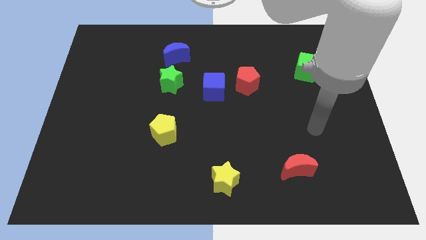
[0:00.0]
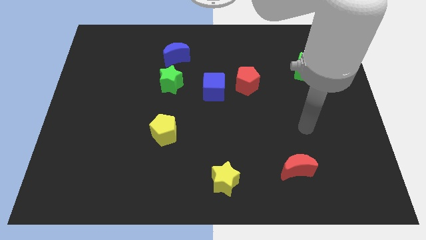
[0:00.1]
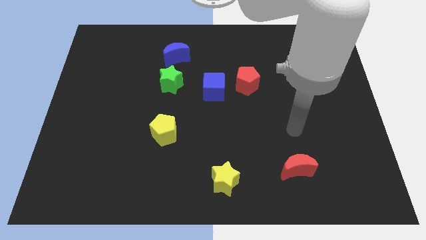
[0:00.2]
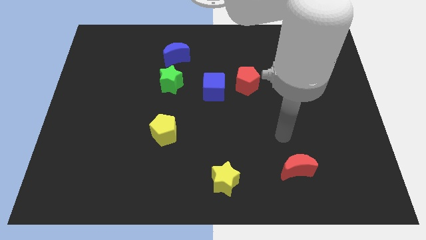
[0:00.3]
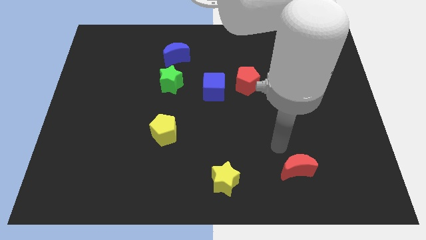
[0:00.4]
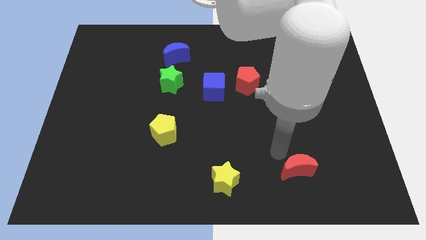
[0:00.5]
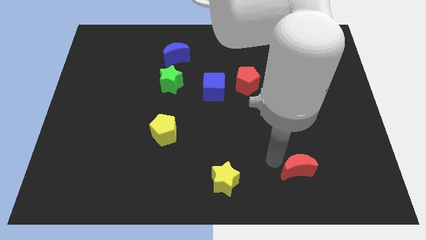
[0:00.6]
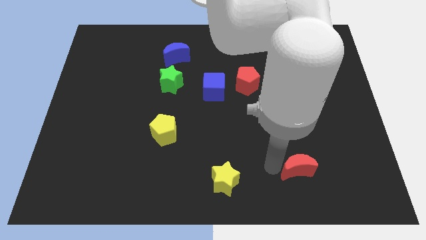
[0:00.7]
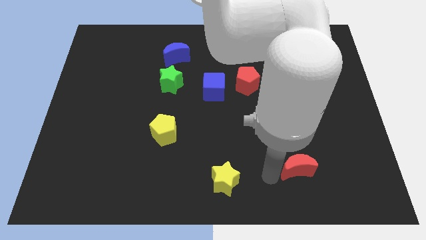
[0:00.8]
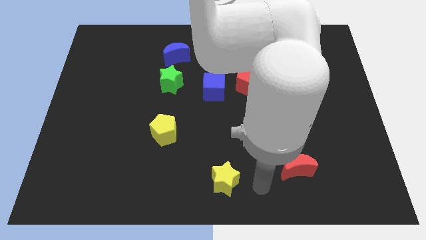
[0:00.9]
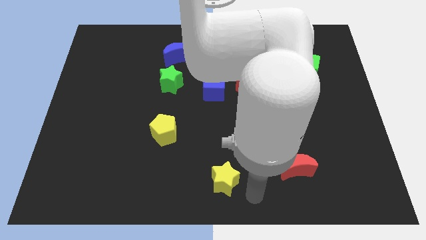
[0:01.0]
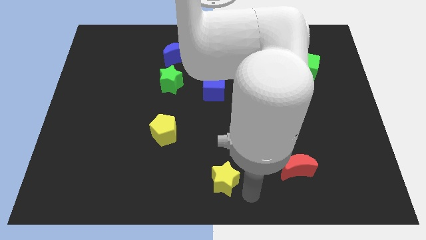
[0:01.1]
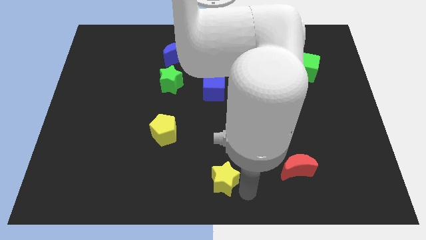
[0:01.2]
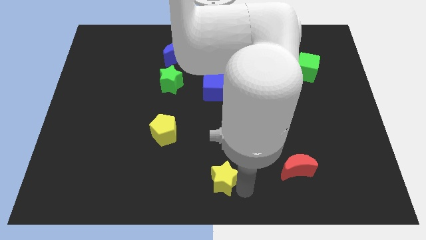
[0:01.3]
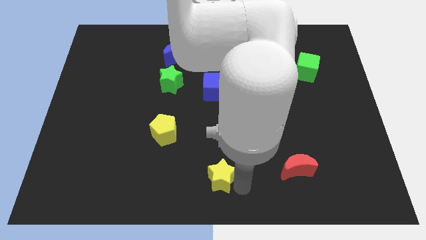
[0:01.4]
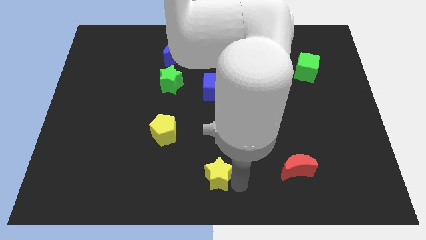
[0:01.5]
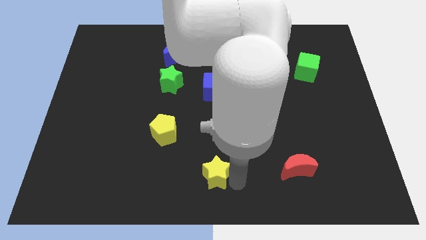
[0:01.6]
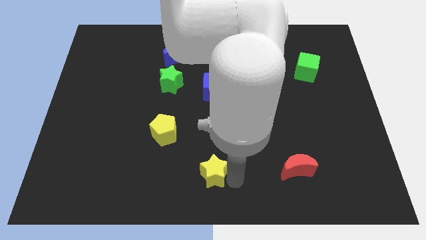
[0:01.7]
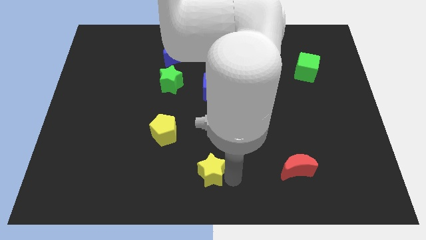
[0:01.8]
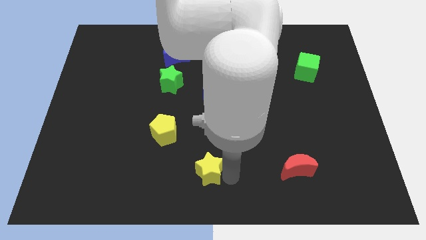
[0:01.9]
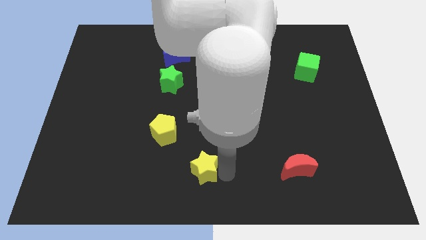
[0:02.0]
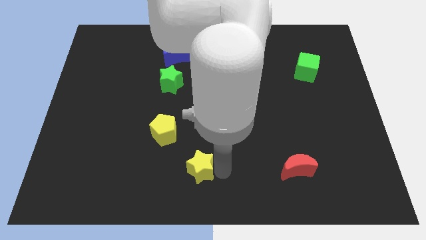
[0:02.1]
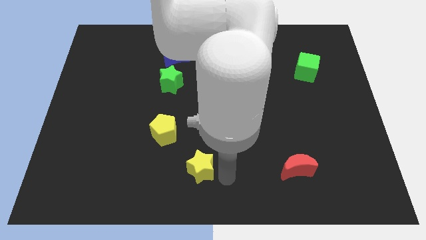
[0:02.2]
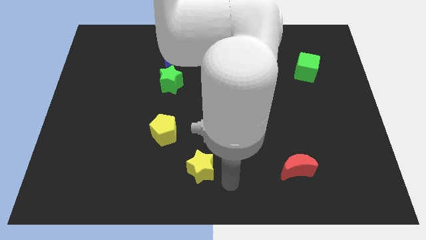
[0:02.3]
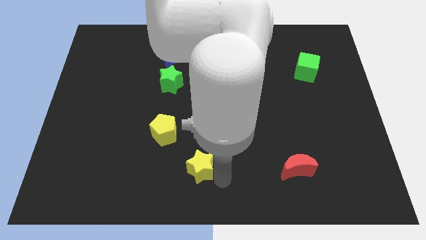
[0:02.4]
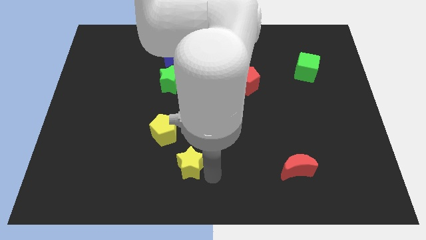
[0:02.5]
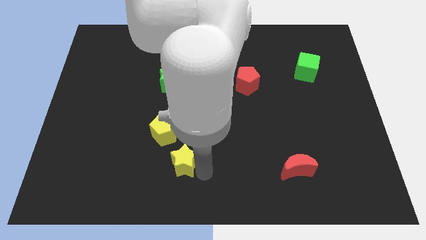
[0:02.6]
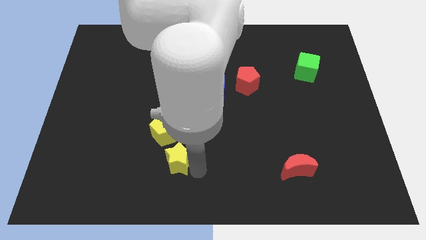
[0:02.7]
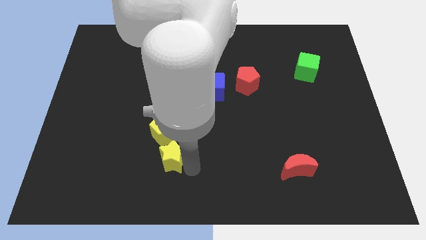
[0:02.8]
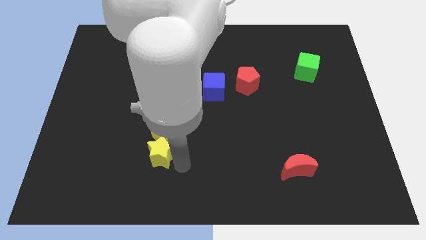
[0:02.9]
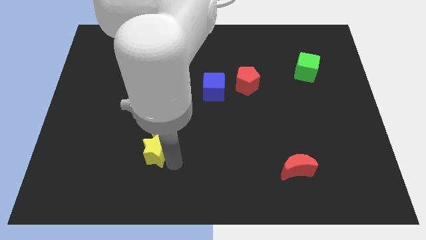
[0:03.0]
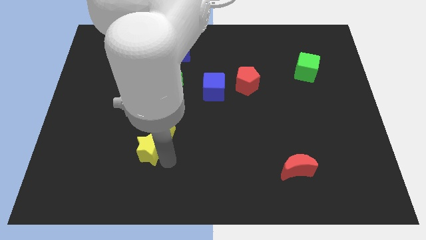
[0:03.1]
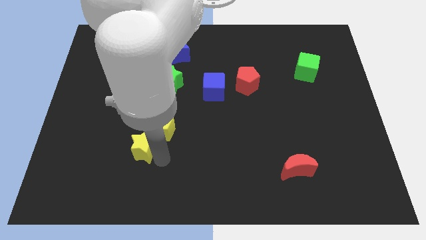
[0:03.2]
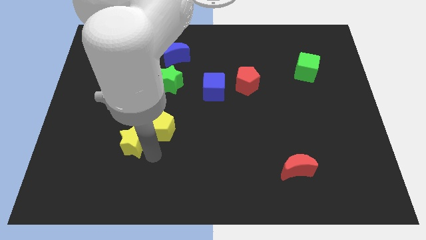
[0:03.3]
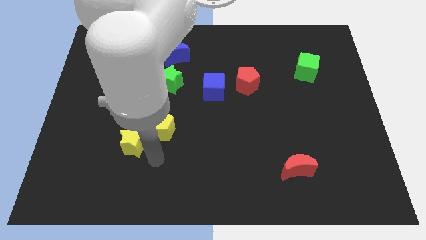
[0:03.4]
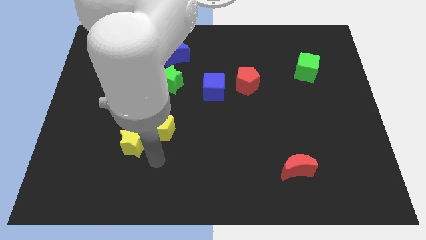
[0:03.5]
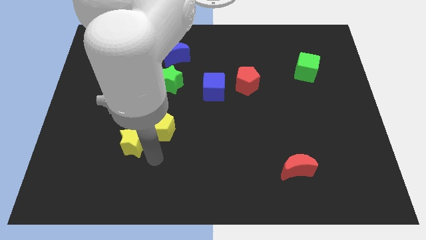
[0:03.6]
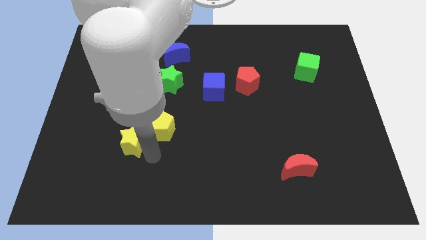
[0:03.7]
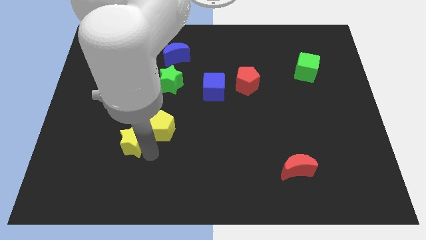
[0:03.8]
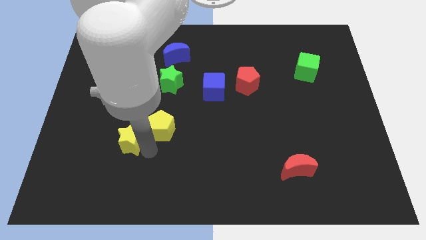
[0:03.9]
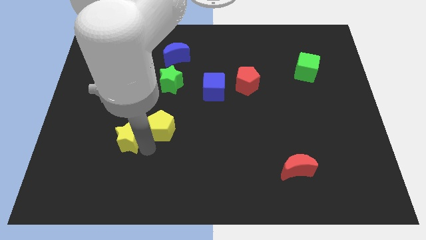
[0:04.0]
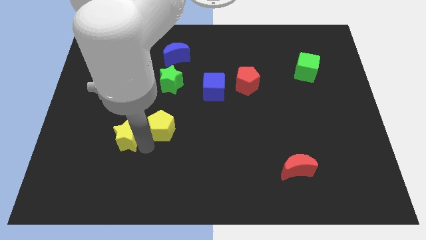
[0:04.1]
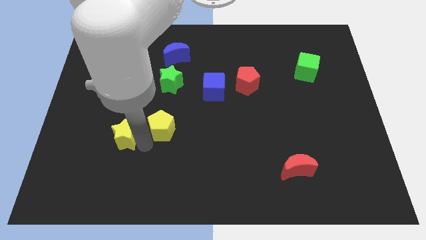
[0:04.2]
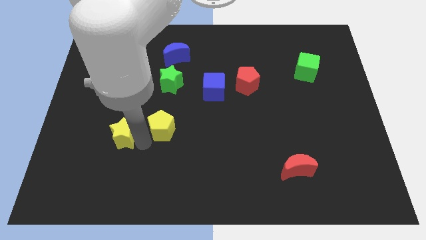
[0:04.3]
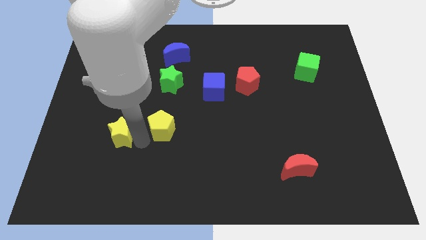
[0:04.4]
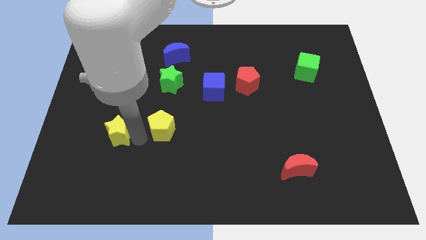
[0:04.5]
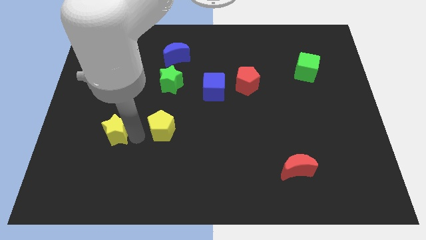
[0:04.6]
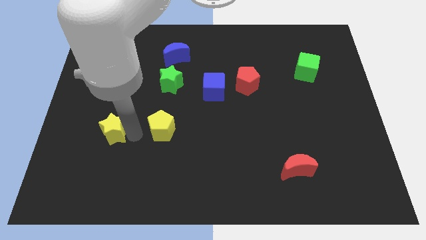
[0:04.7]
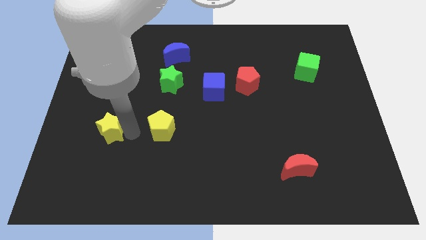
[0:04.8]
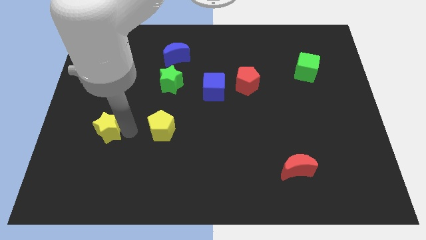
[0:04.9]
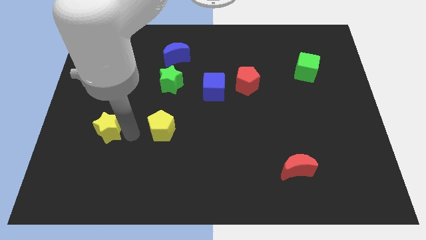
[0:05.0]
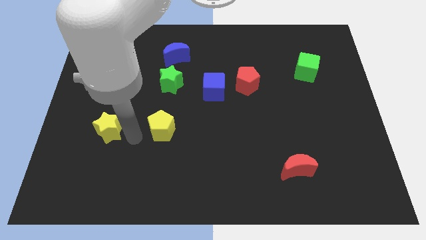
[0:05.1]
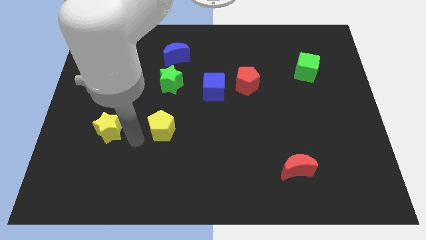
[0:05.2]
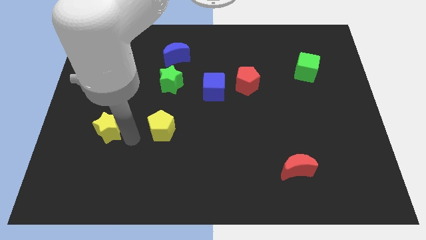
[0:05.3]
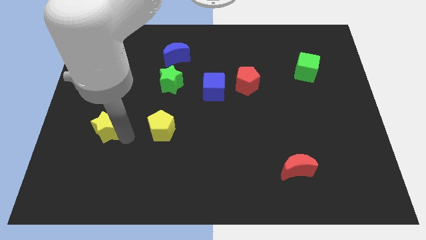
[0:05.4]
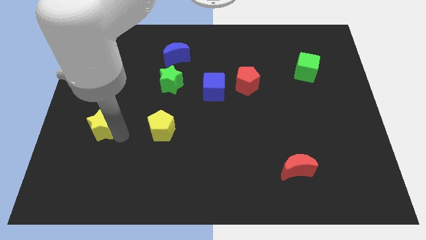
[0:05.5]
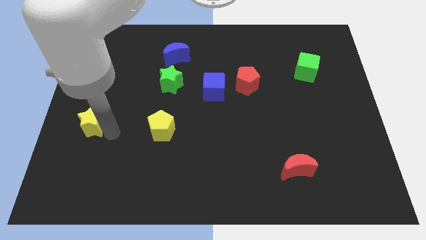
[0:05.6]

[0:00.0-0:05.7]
push the yellow star to the left side

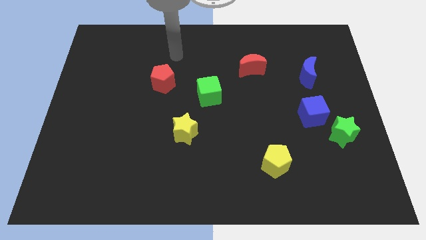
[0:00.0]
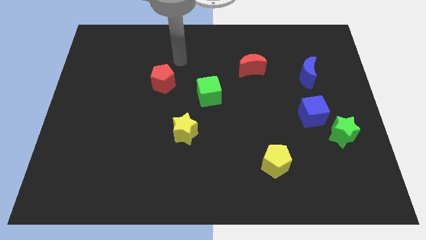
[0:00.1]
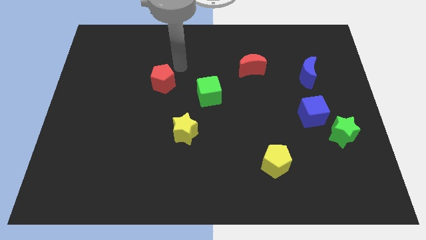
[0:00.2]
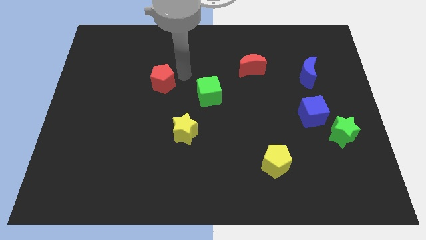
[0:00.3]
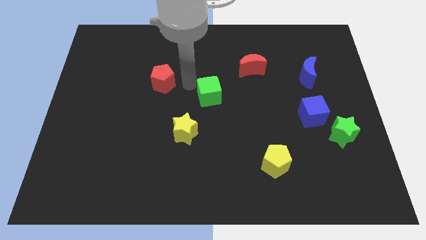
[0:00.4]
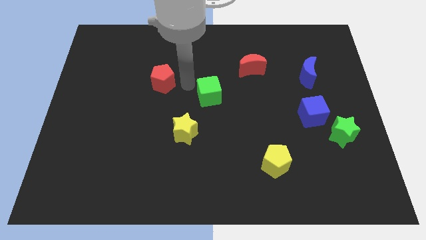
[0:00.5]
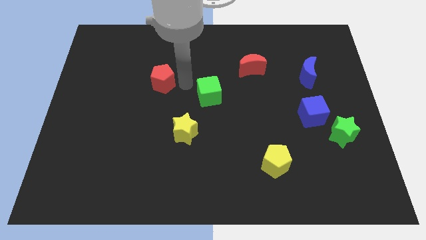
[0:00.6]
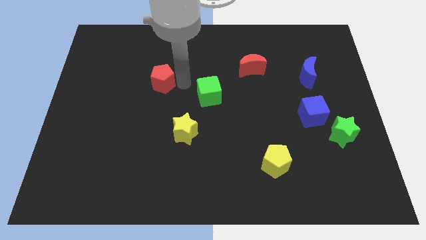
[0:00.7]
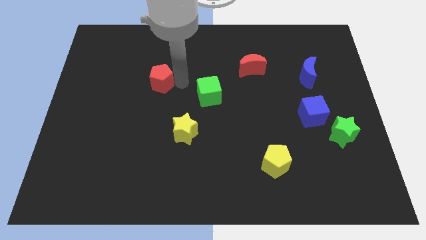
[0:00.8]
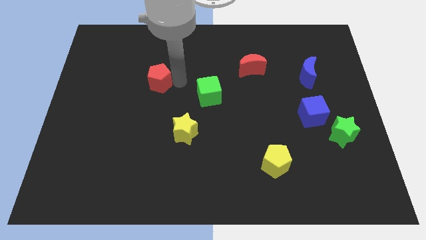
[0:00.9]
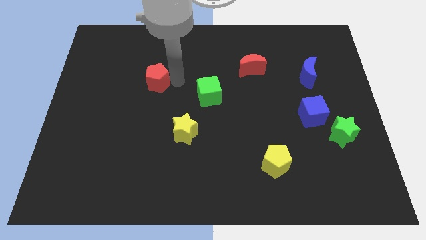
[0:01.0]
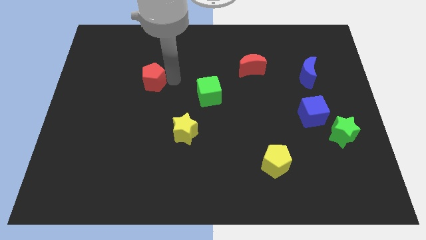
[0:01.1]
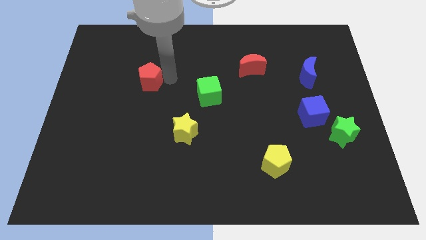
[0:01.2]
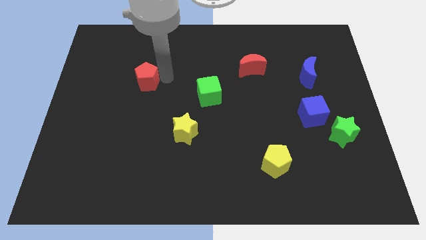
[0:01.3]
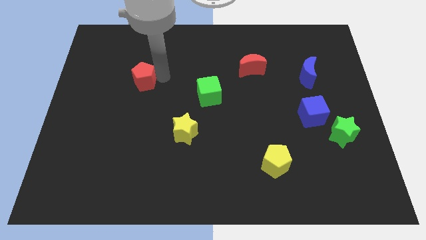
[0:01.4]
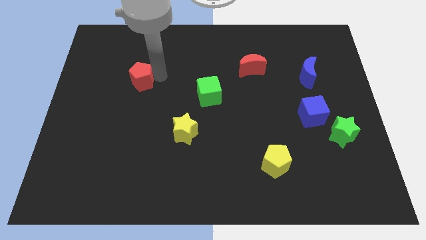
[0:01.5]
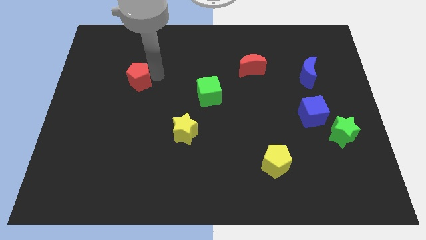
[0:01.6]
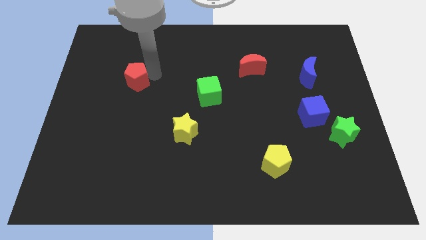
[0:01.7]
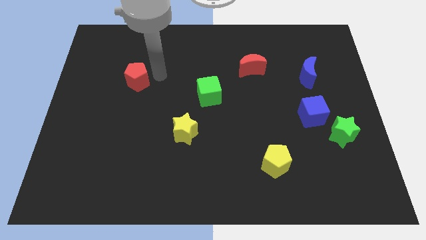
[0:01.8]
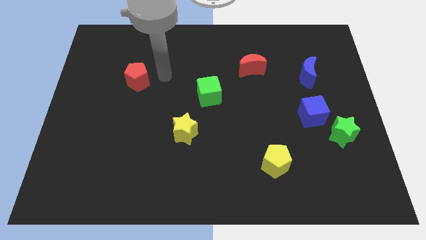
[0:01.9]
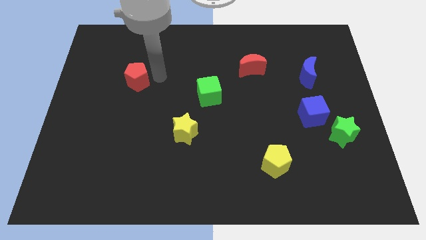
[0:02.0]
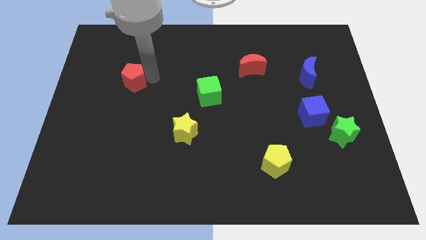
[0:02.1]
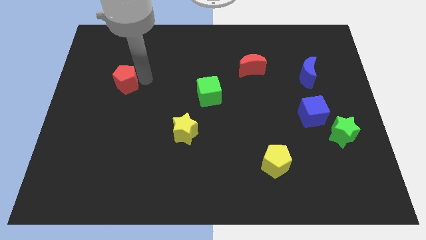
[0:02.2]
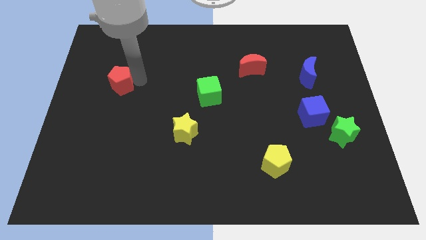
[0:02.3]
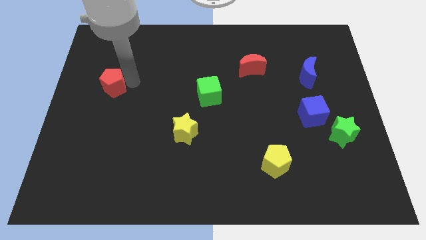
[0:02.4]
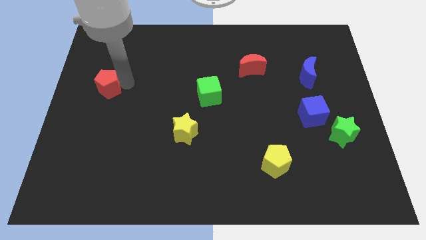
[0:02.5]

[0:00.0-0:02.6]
put the red pentagon to the left side
